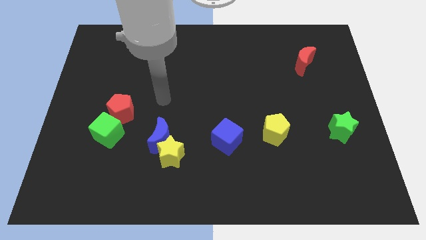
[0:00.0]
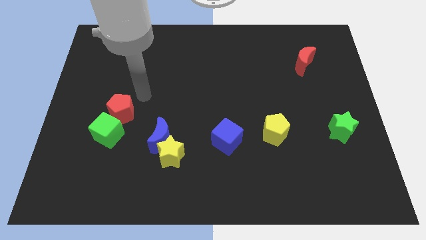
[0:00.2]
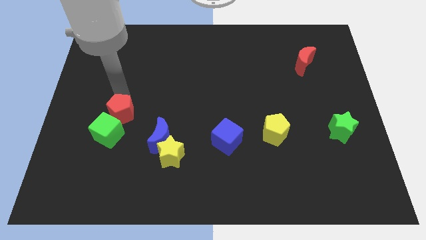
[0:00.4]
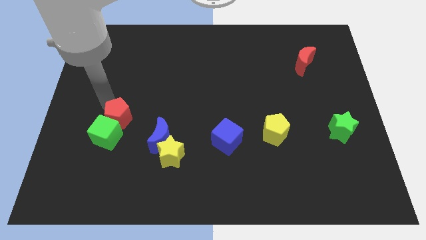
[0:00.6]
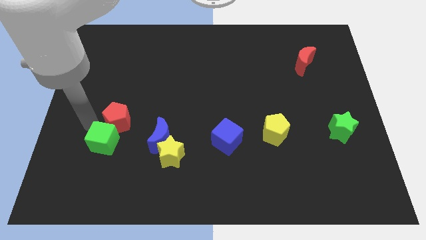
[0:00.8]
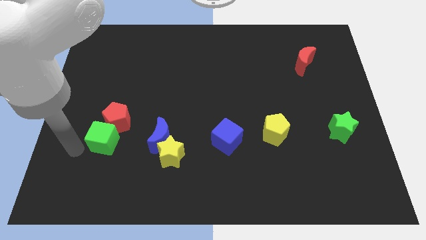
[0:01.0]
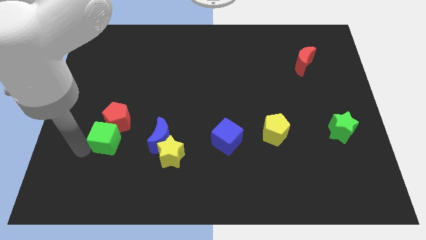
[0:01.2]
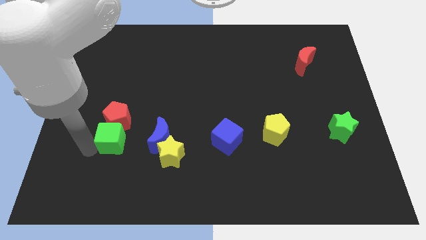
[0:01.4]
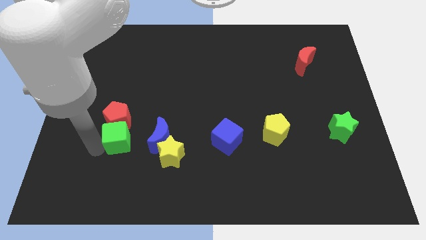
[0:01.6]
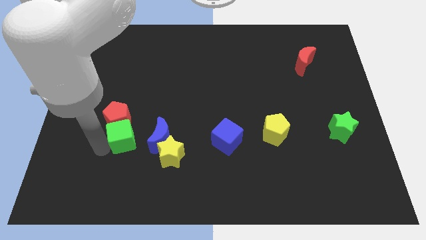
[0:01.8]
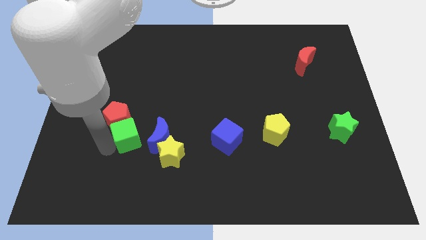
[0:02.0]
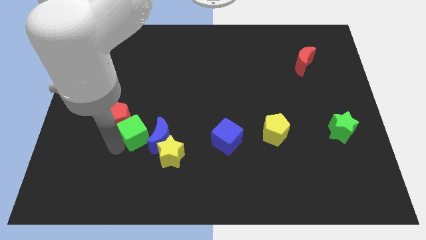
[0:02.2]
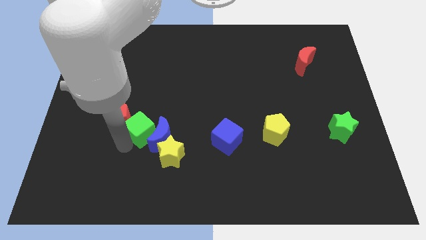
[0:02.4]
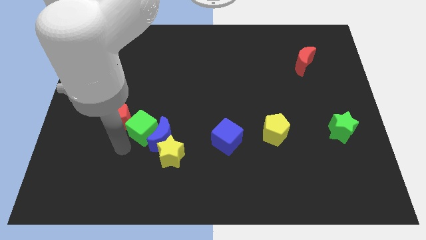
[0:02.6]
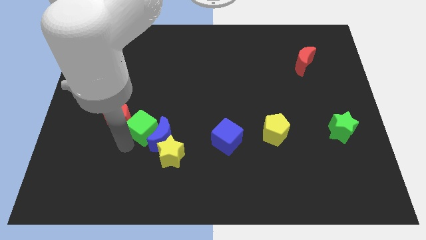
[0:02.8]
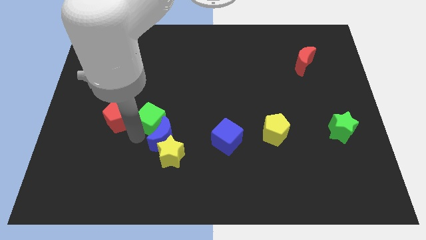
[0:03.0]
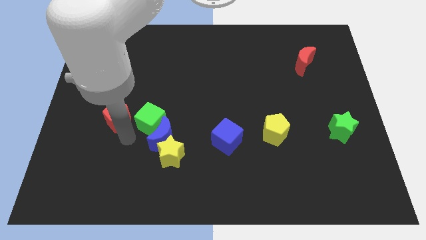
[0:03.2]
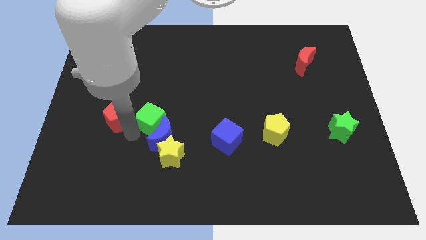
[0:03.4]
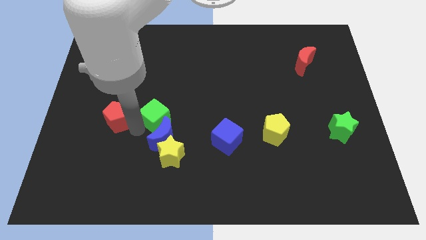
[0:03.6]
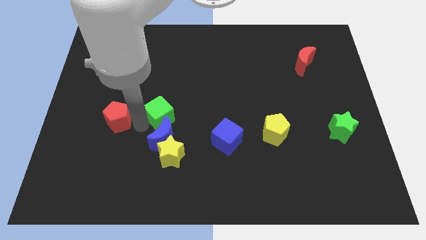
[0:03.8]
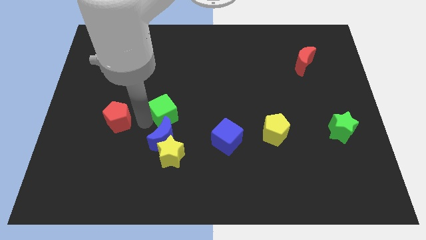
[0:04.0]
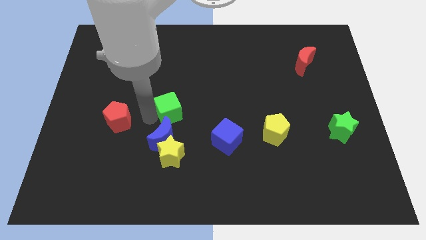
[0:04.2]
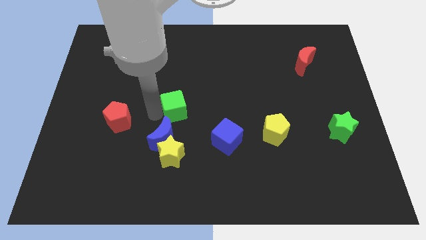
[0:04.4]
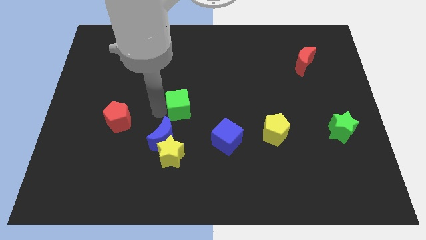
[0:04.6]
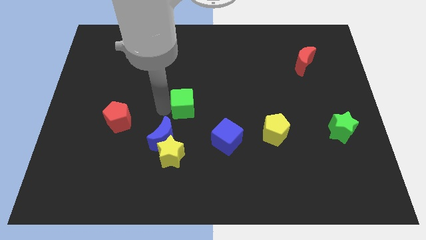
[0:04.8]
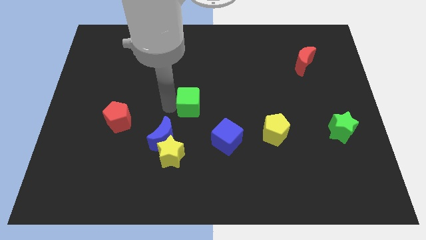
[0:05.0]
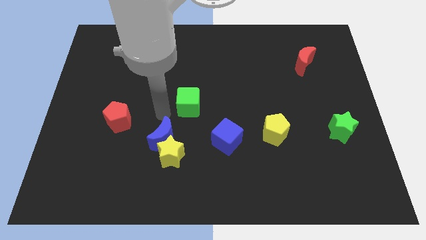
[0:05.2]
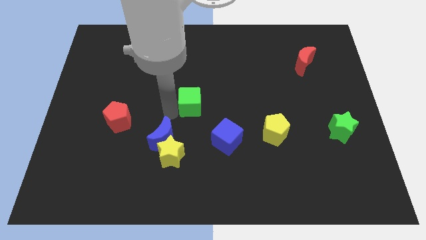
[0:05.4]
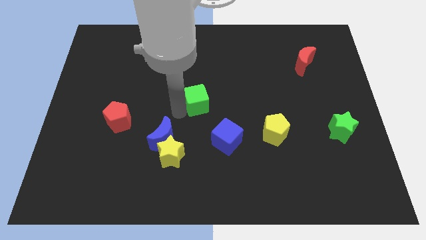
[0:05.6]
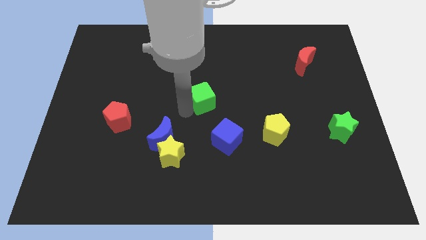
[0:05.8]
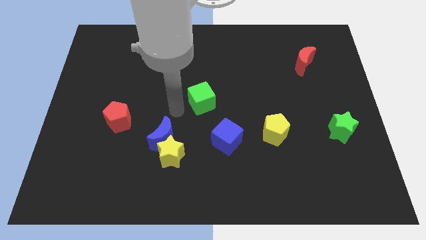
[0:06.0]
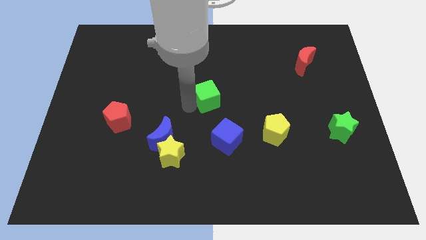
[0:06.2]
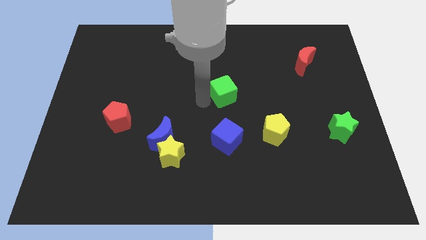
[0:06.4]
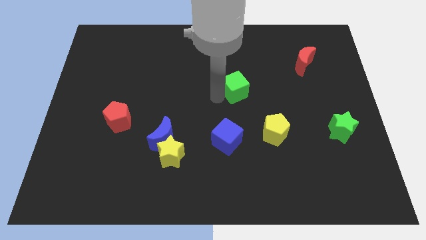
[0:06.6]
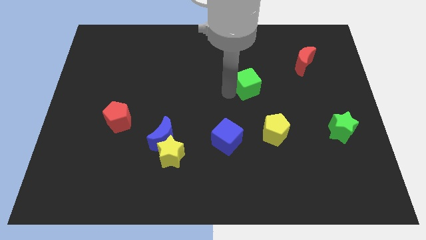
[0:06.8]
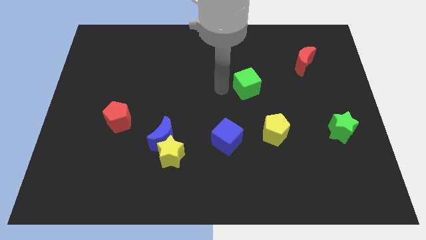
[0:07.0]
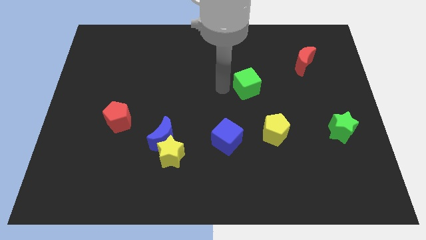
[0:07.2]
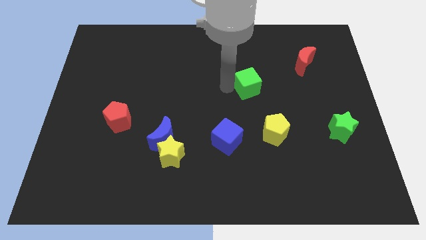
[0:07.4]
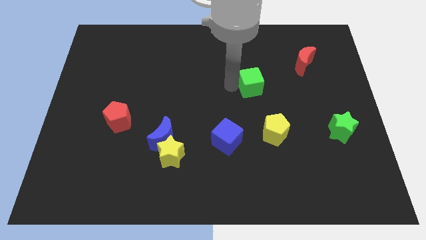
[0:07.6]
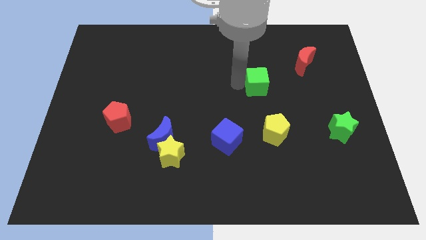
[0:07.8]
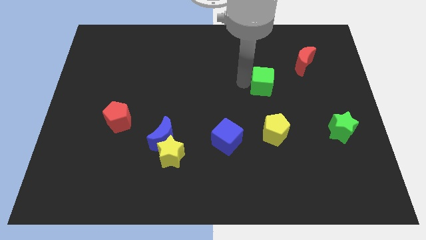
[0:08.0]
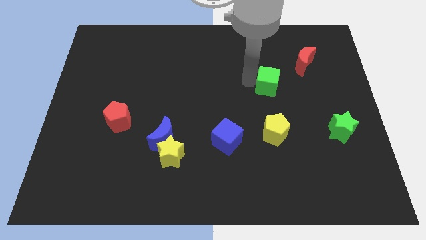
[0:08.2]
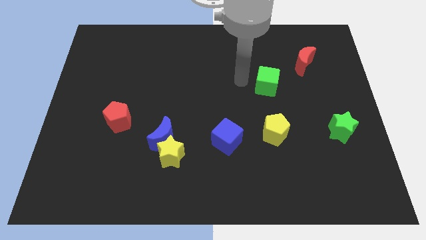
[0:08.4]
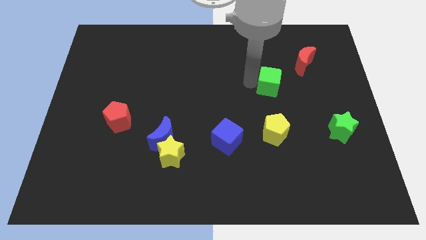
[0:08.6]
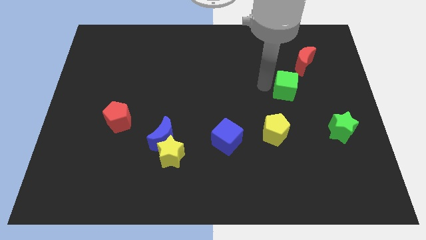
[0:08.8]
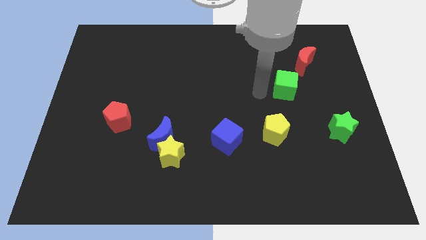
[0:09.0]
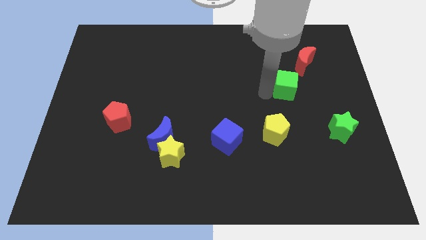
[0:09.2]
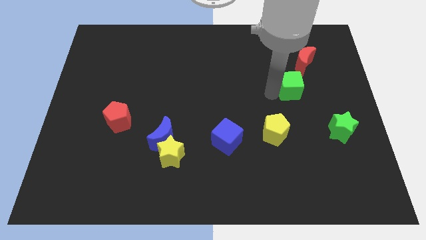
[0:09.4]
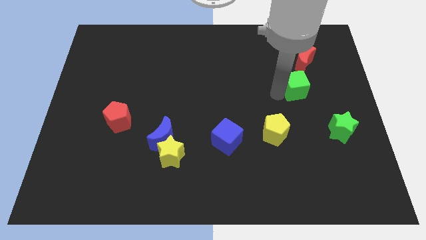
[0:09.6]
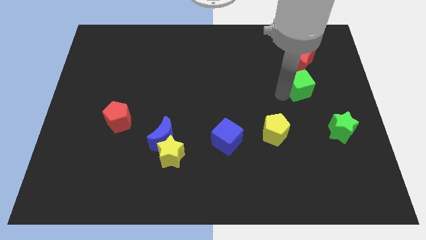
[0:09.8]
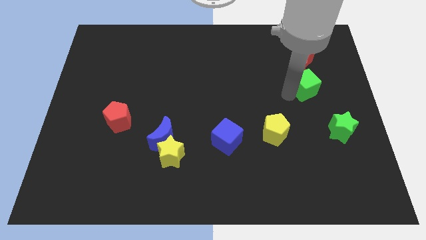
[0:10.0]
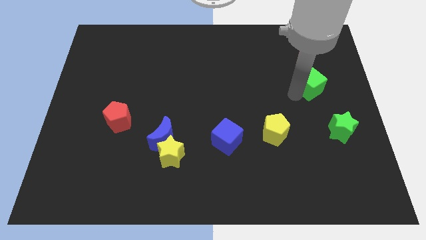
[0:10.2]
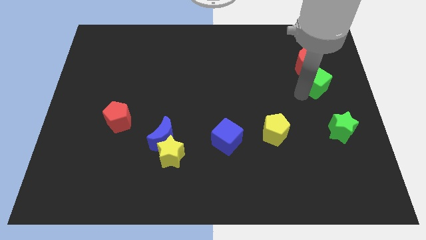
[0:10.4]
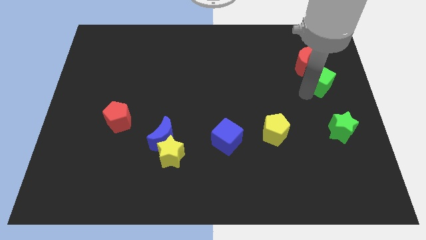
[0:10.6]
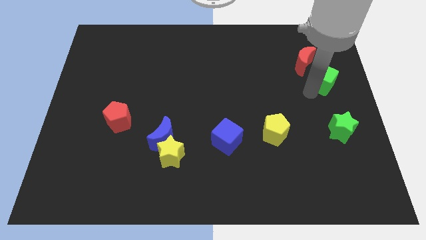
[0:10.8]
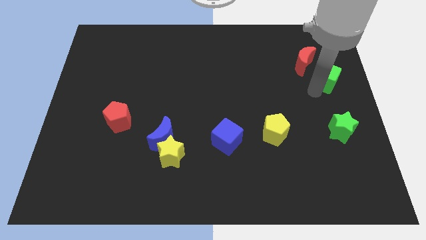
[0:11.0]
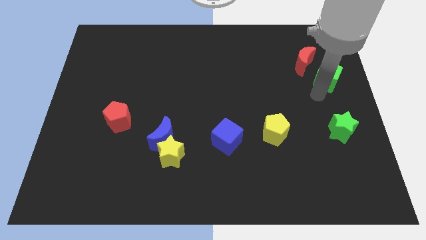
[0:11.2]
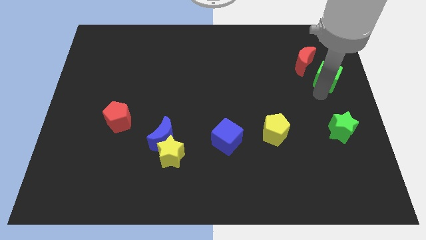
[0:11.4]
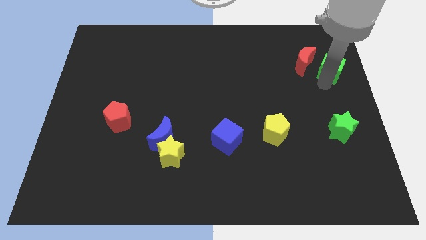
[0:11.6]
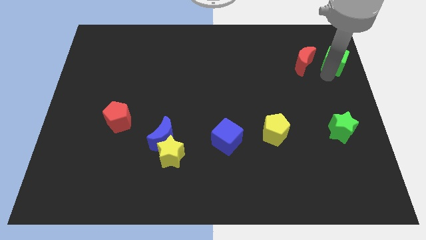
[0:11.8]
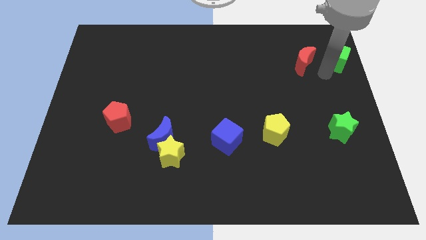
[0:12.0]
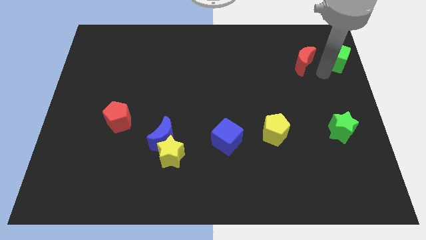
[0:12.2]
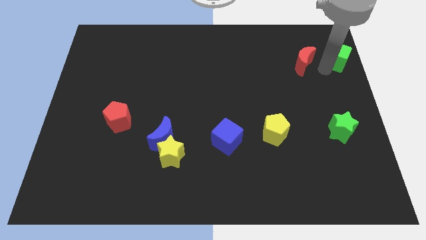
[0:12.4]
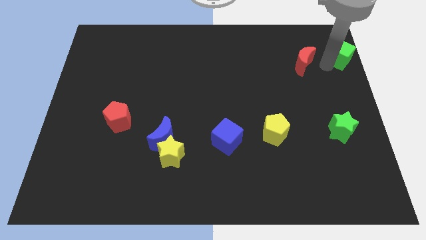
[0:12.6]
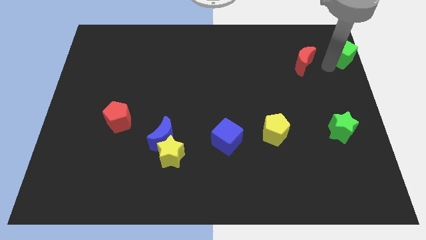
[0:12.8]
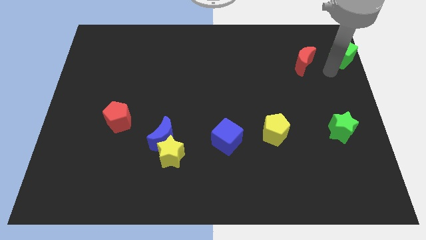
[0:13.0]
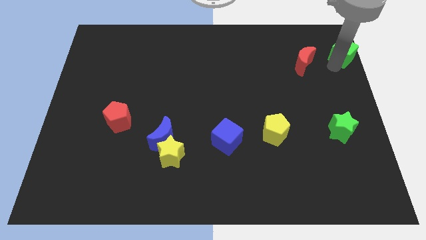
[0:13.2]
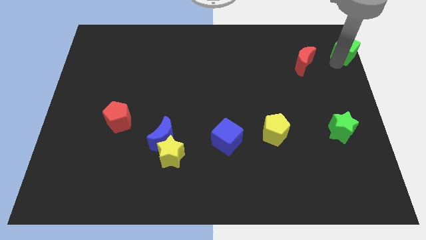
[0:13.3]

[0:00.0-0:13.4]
slide the green cube to the upper right corner

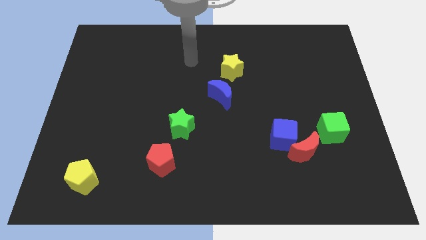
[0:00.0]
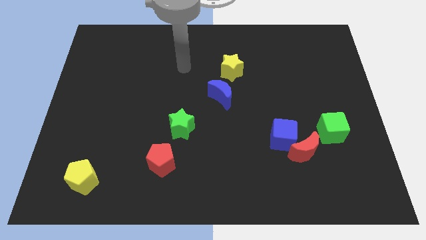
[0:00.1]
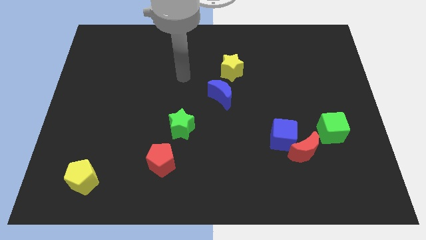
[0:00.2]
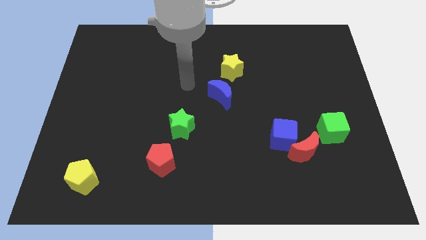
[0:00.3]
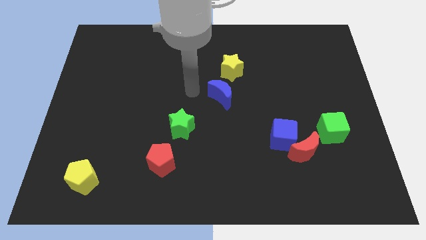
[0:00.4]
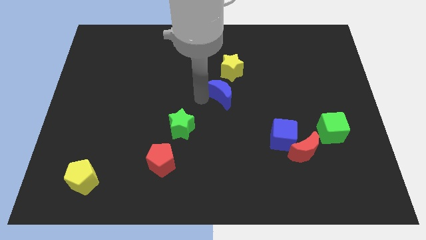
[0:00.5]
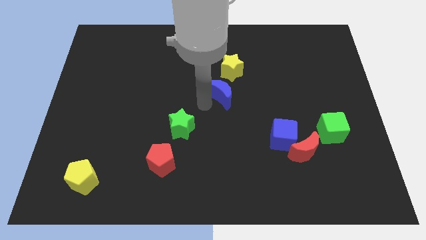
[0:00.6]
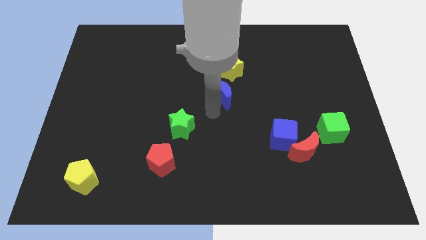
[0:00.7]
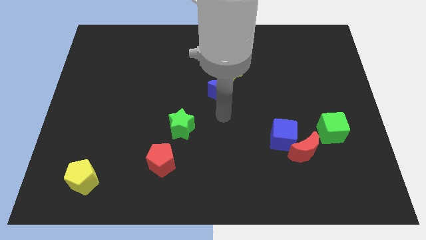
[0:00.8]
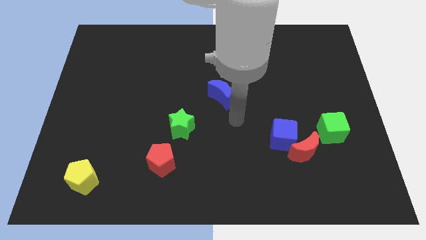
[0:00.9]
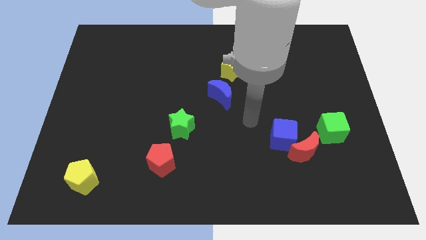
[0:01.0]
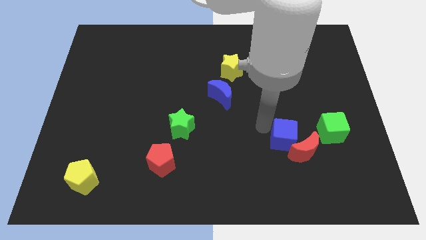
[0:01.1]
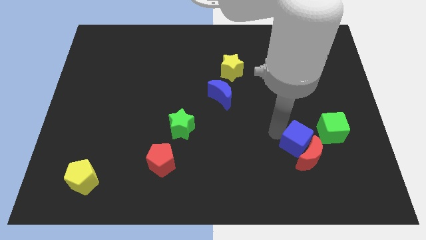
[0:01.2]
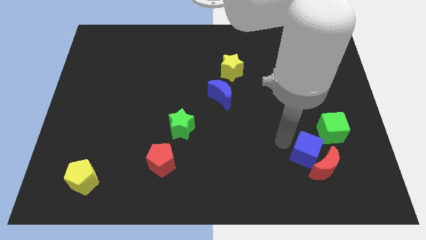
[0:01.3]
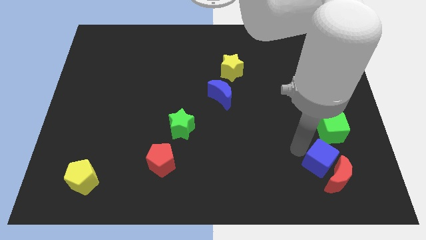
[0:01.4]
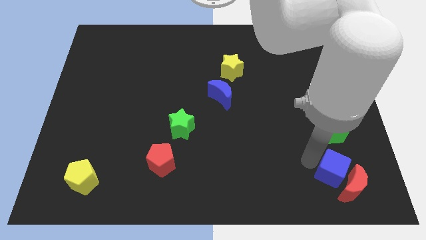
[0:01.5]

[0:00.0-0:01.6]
push the red moon to the bottom right of the board
